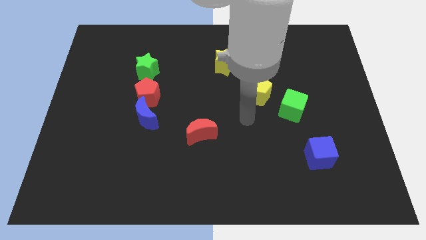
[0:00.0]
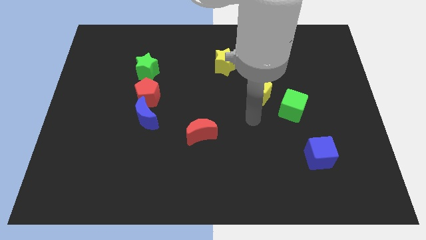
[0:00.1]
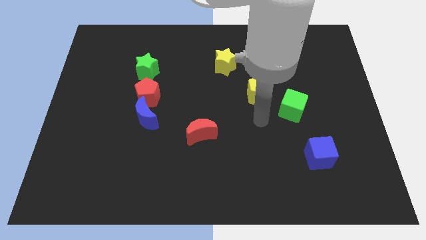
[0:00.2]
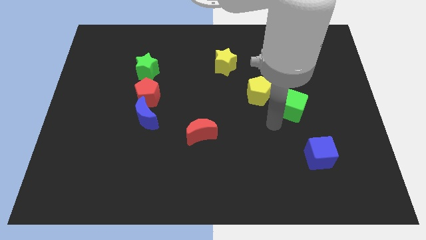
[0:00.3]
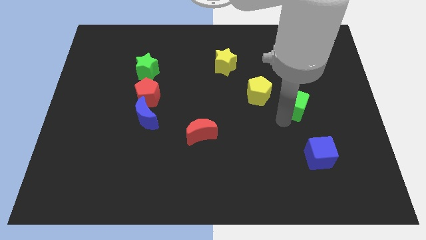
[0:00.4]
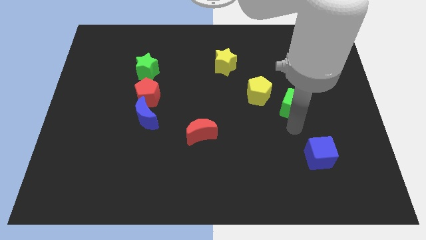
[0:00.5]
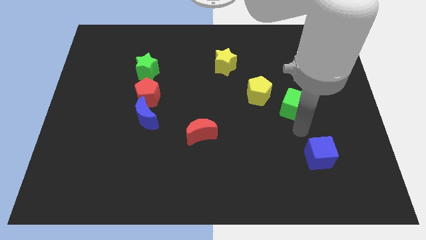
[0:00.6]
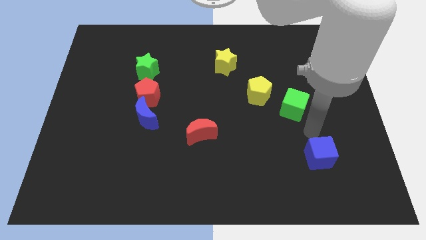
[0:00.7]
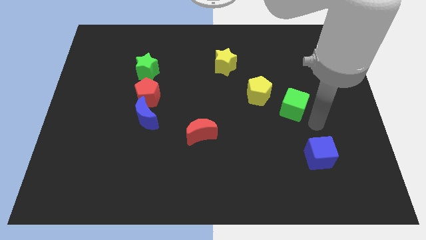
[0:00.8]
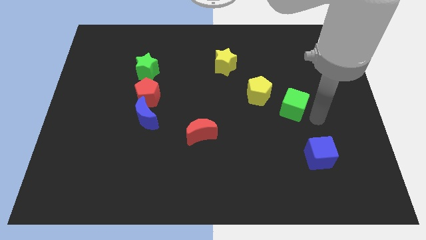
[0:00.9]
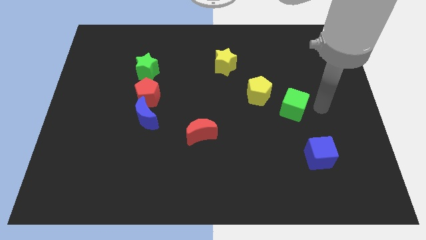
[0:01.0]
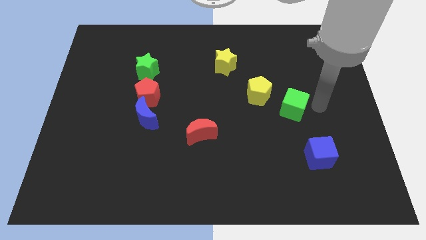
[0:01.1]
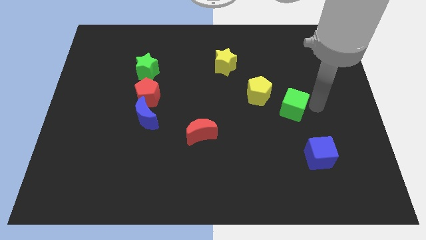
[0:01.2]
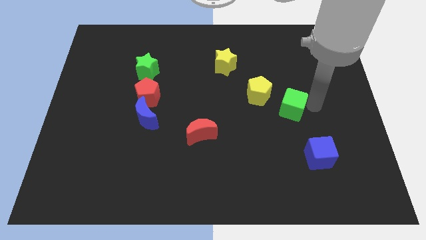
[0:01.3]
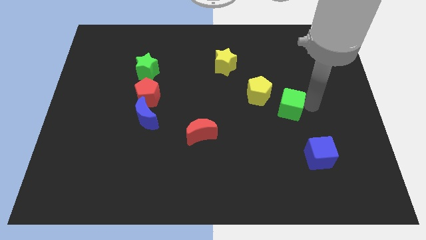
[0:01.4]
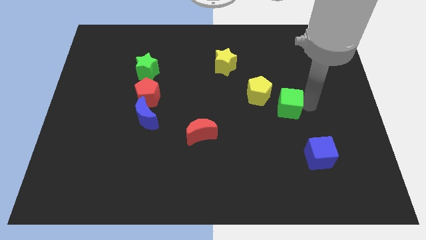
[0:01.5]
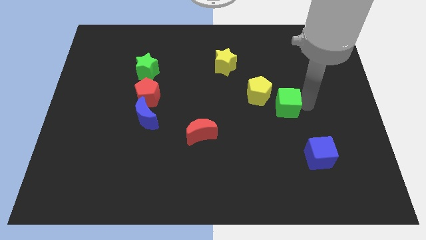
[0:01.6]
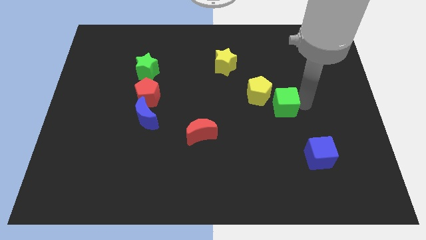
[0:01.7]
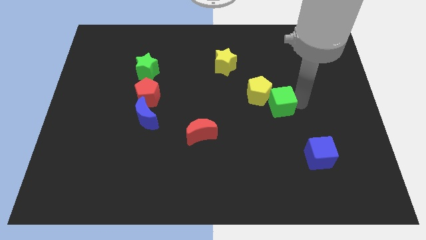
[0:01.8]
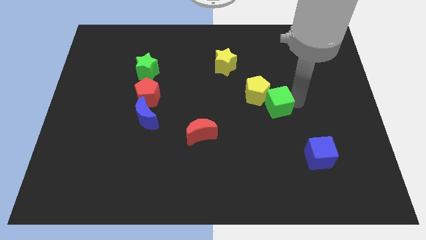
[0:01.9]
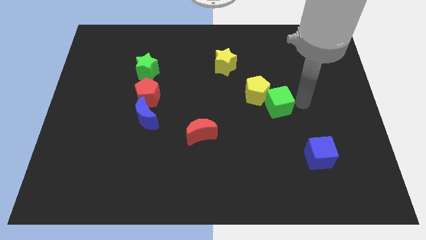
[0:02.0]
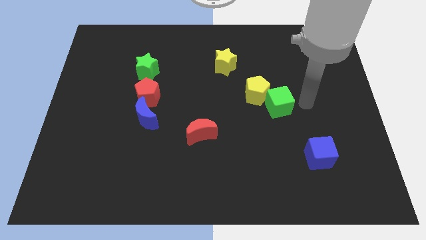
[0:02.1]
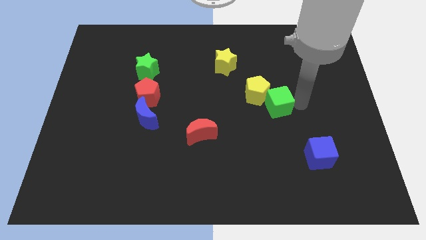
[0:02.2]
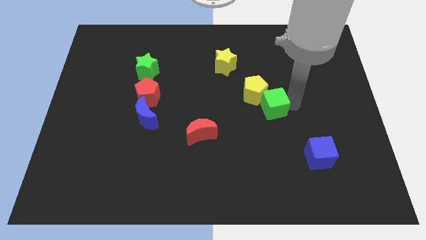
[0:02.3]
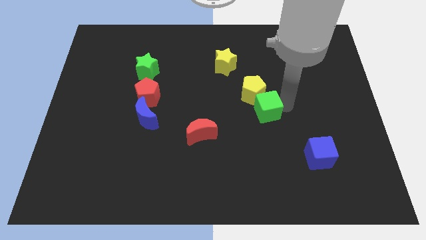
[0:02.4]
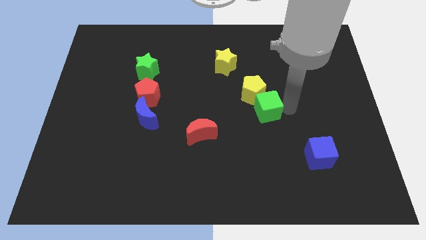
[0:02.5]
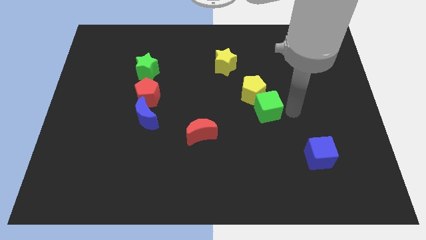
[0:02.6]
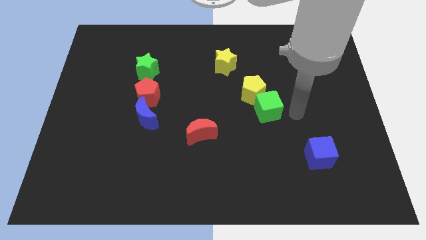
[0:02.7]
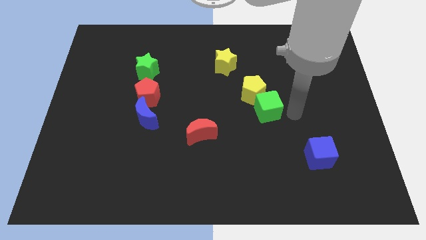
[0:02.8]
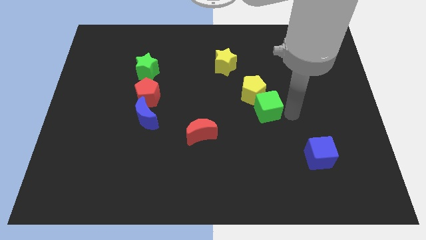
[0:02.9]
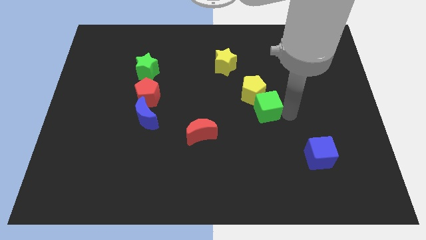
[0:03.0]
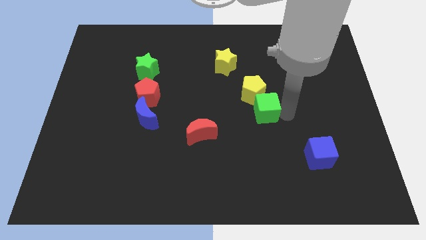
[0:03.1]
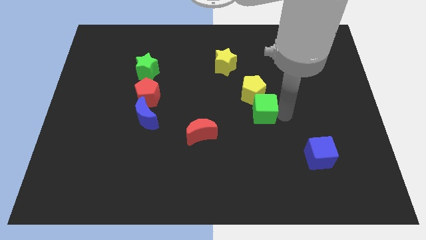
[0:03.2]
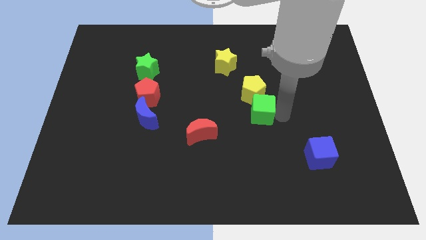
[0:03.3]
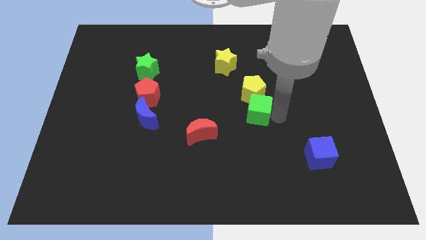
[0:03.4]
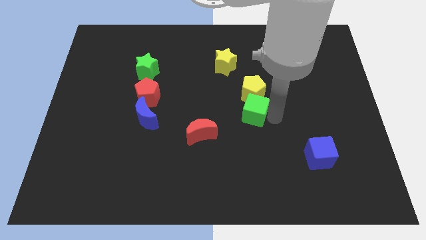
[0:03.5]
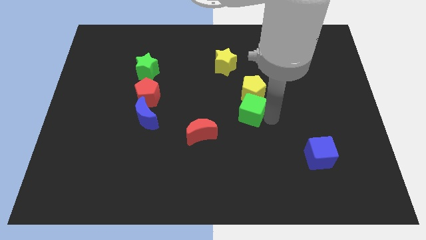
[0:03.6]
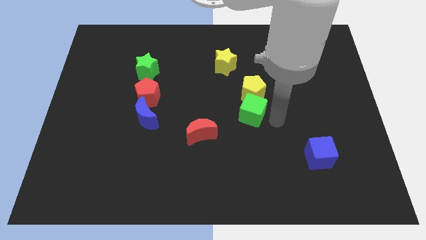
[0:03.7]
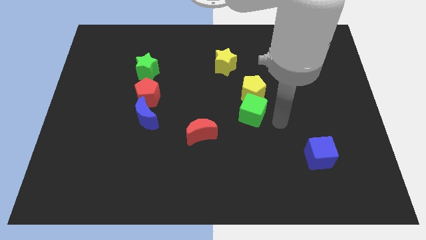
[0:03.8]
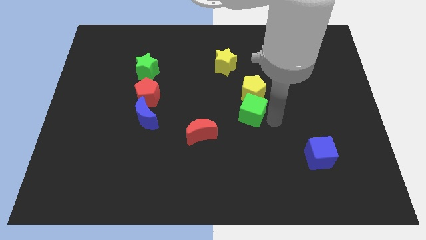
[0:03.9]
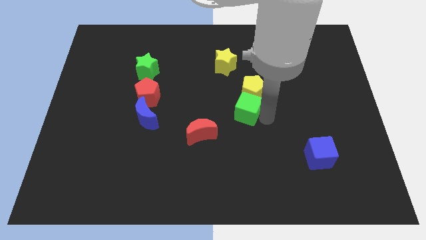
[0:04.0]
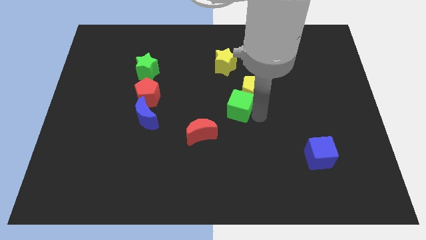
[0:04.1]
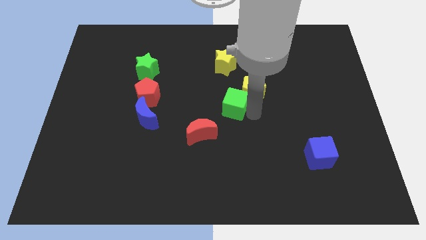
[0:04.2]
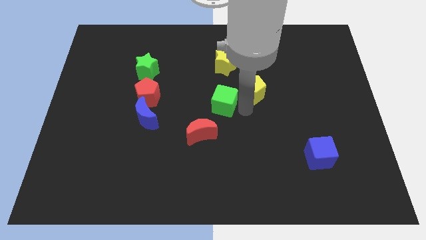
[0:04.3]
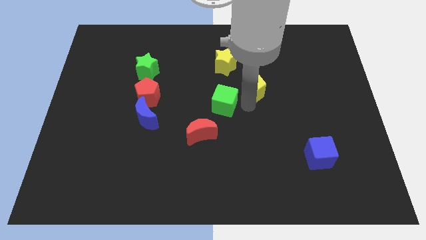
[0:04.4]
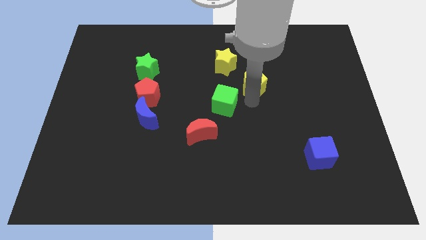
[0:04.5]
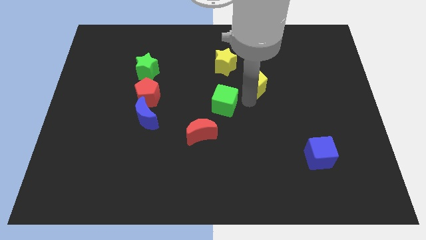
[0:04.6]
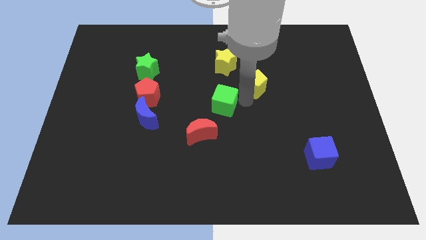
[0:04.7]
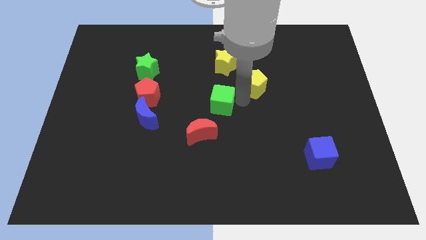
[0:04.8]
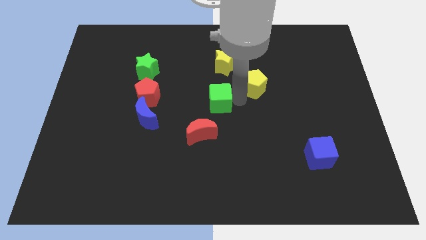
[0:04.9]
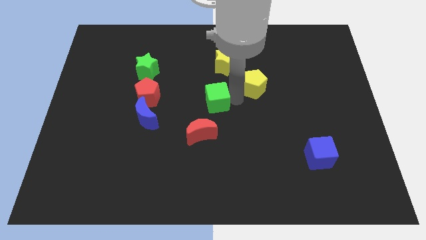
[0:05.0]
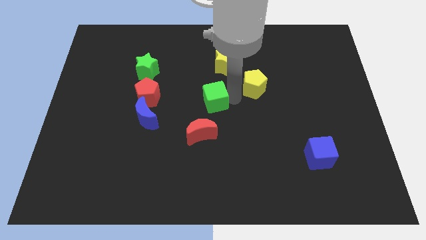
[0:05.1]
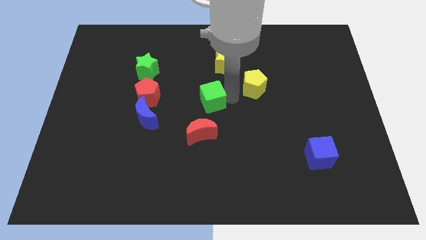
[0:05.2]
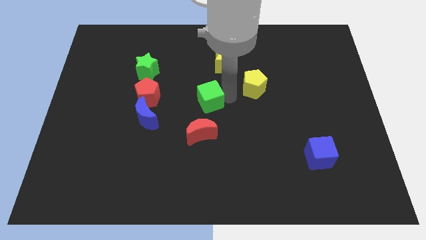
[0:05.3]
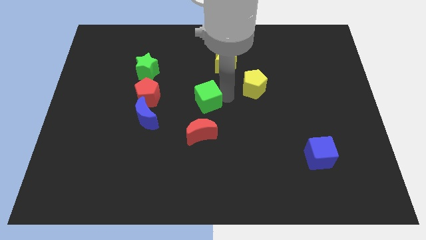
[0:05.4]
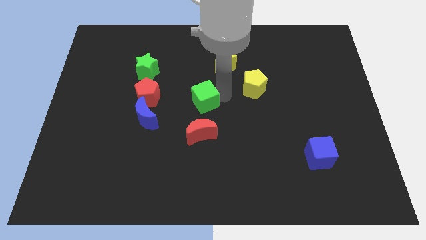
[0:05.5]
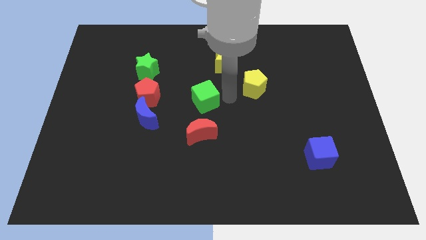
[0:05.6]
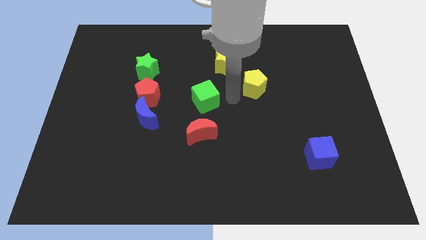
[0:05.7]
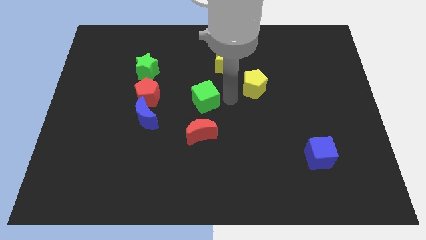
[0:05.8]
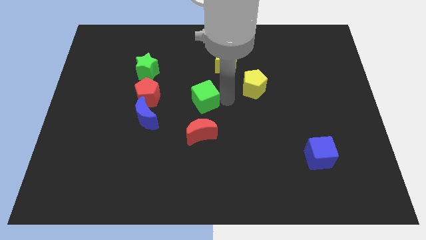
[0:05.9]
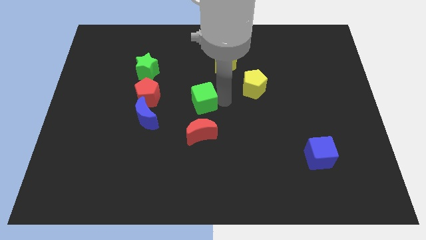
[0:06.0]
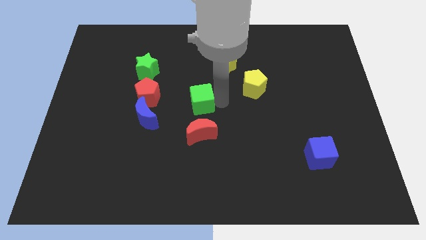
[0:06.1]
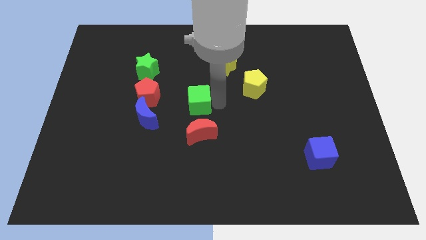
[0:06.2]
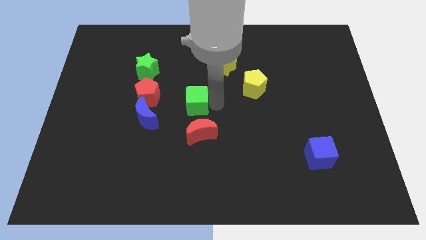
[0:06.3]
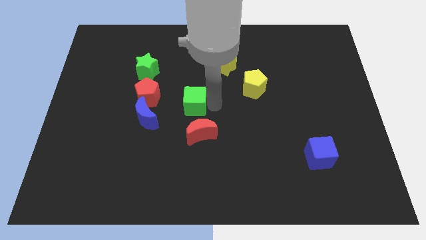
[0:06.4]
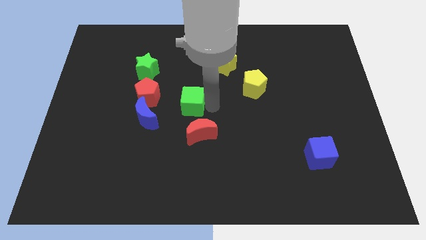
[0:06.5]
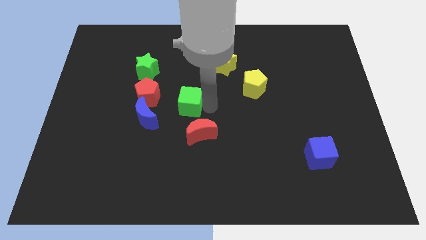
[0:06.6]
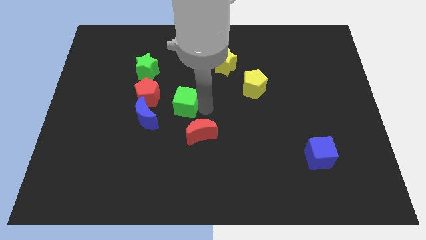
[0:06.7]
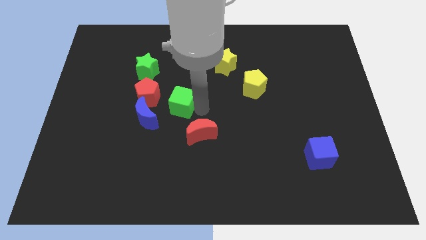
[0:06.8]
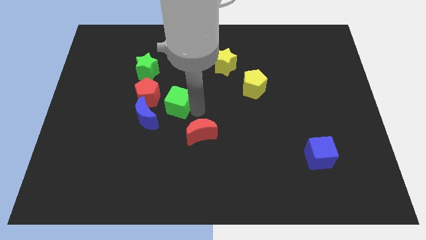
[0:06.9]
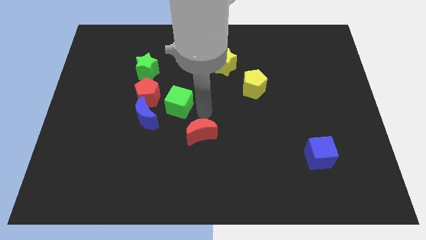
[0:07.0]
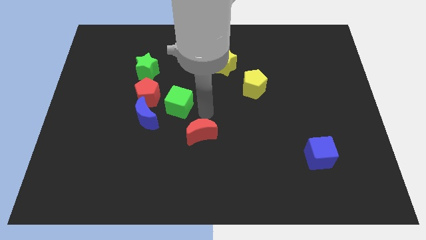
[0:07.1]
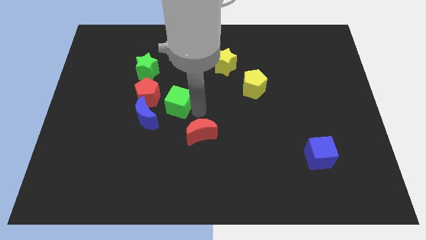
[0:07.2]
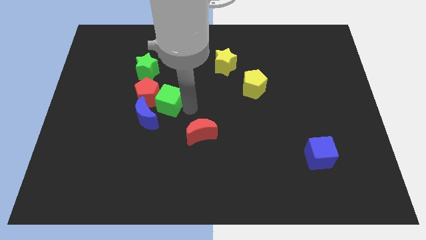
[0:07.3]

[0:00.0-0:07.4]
slide the green cube to the red pentagon
